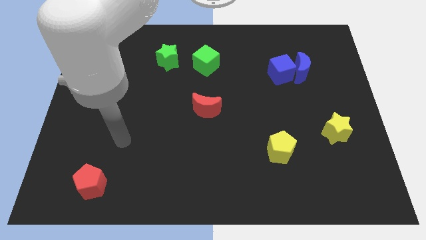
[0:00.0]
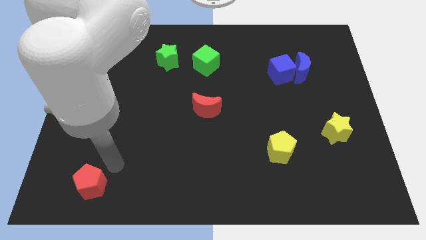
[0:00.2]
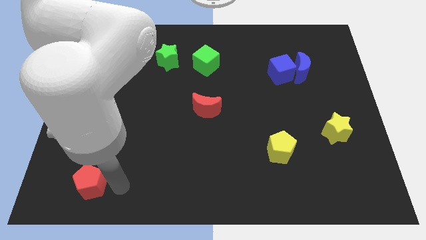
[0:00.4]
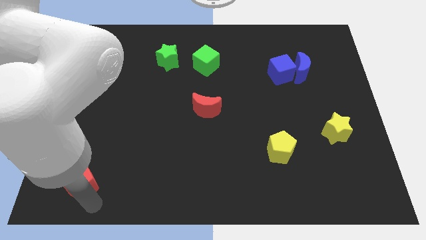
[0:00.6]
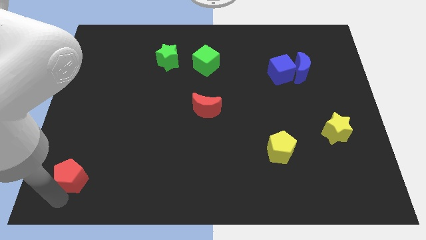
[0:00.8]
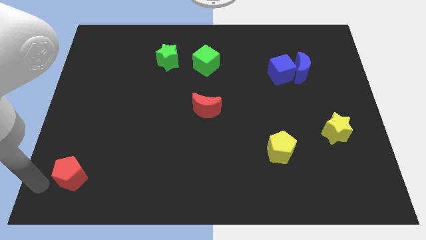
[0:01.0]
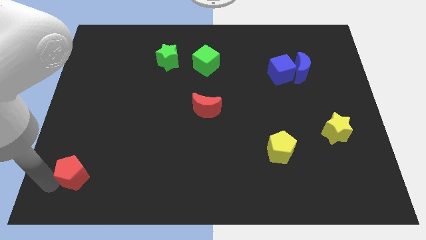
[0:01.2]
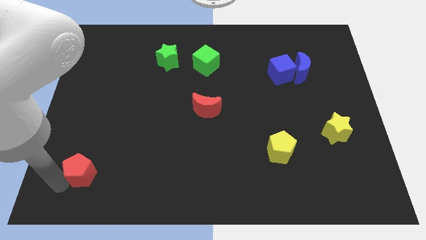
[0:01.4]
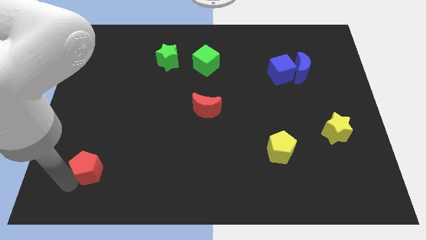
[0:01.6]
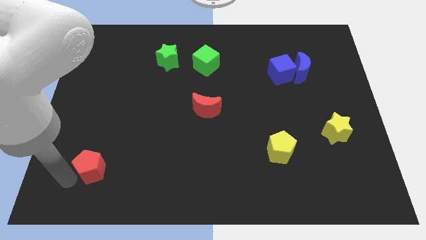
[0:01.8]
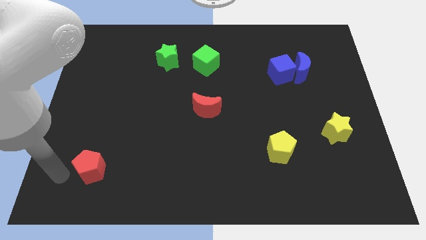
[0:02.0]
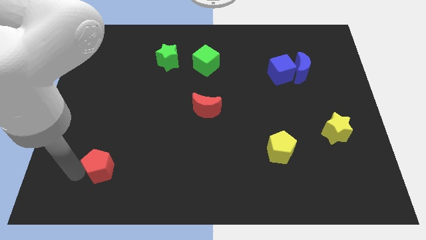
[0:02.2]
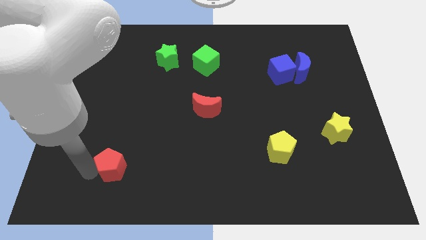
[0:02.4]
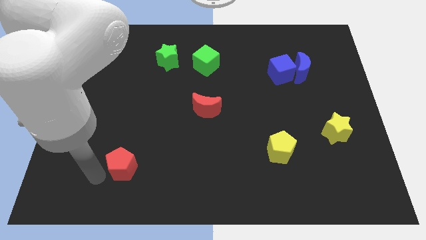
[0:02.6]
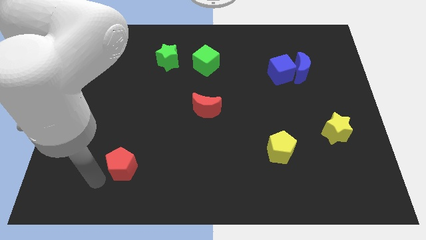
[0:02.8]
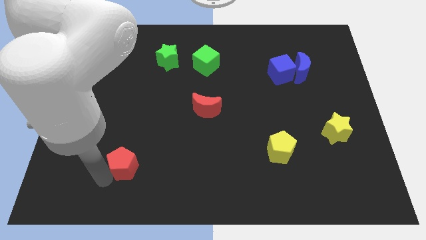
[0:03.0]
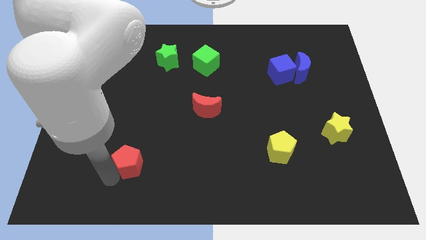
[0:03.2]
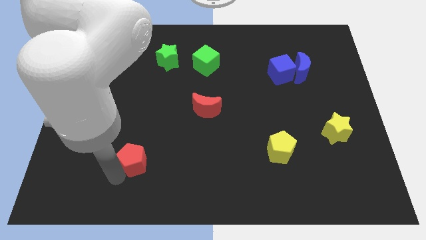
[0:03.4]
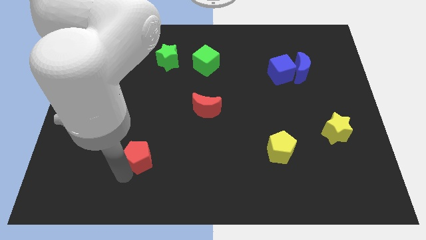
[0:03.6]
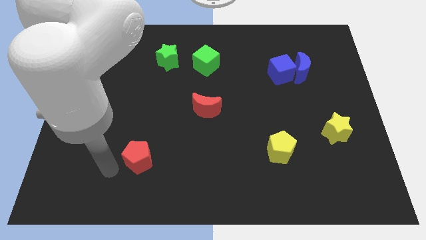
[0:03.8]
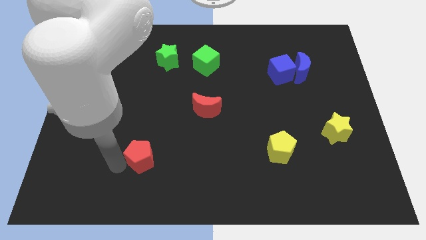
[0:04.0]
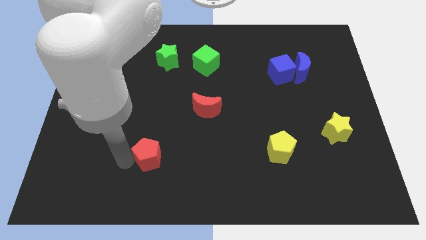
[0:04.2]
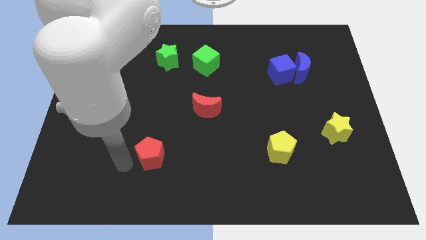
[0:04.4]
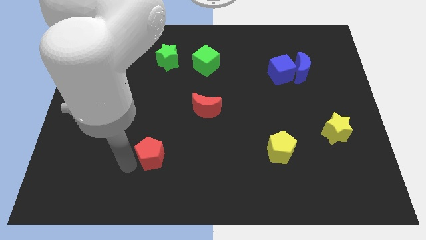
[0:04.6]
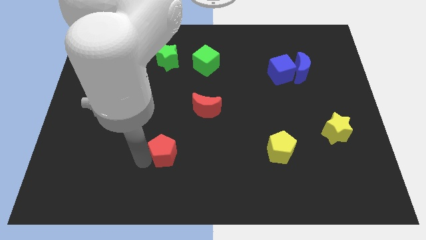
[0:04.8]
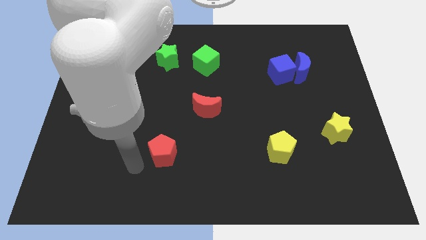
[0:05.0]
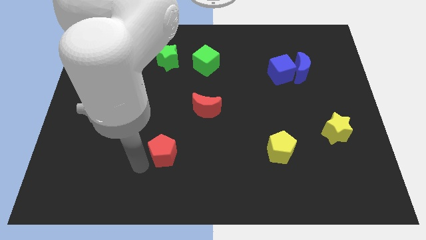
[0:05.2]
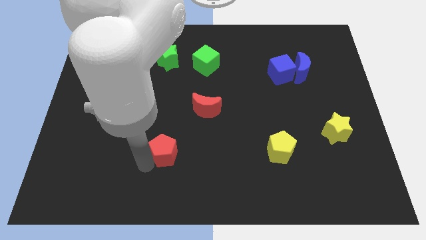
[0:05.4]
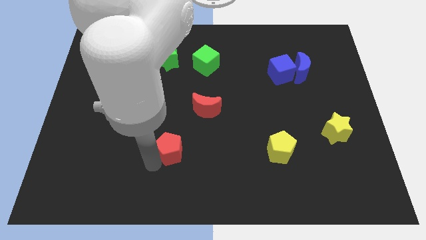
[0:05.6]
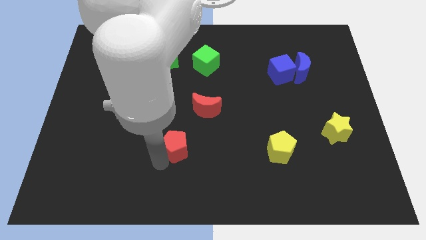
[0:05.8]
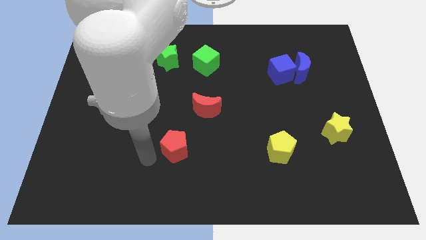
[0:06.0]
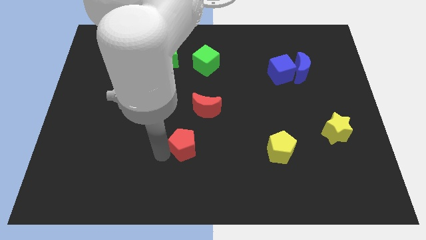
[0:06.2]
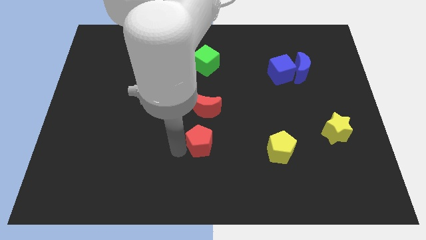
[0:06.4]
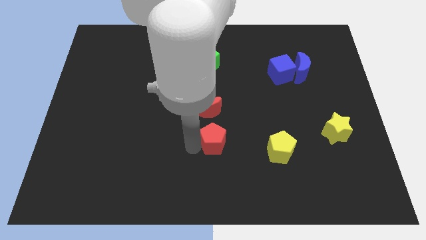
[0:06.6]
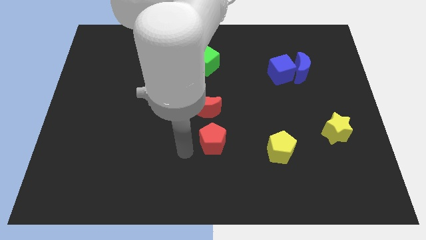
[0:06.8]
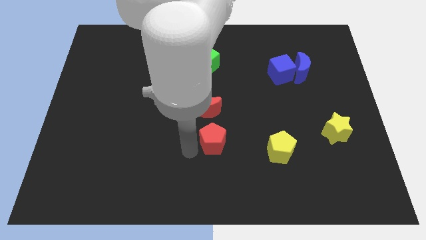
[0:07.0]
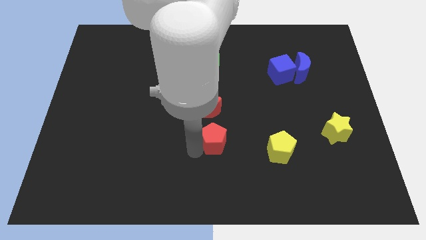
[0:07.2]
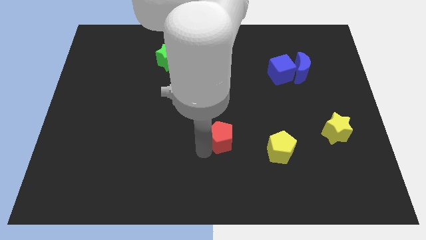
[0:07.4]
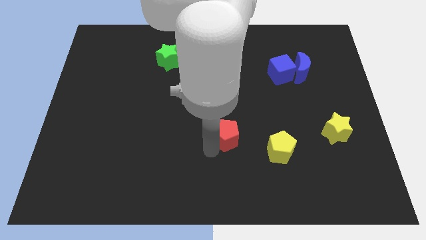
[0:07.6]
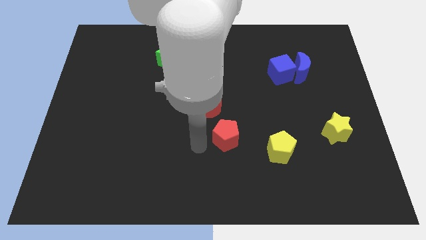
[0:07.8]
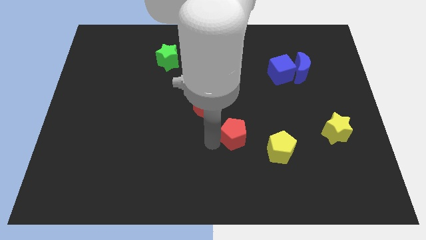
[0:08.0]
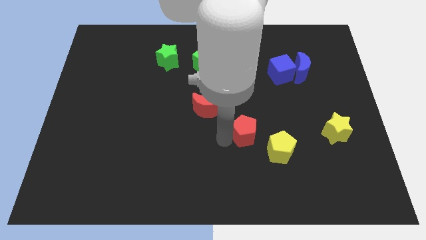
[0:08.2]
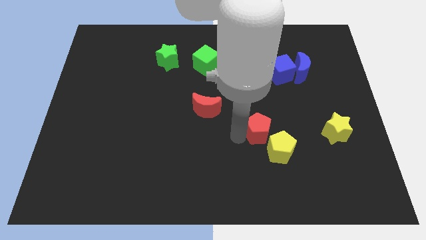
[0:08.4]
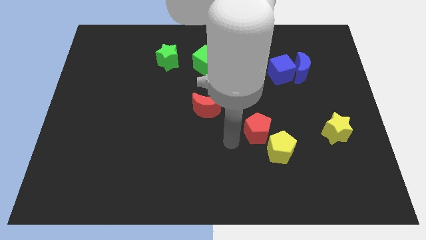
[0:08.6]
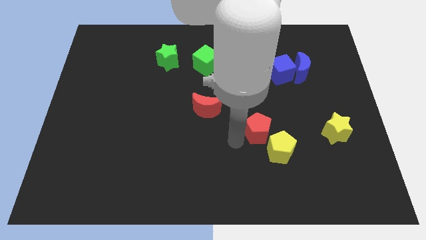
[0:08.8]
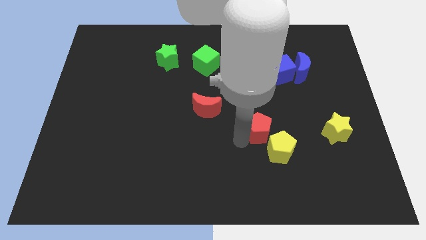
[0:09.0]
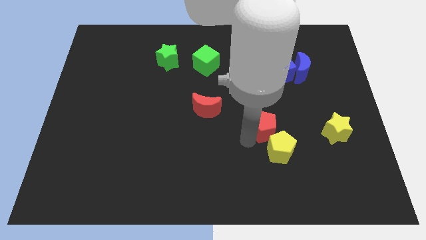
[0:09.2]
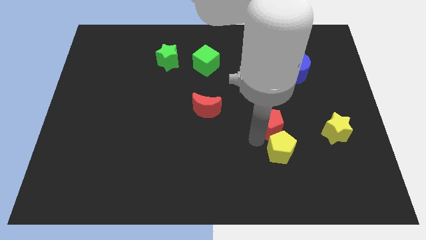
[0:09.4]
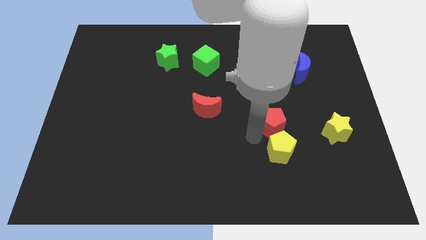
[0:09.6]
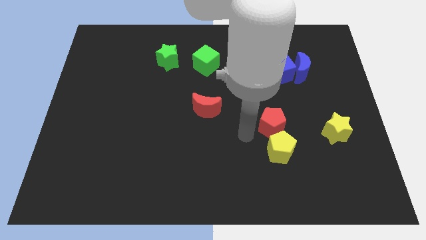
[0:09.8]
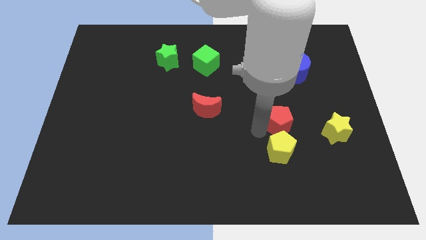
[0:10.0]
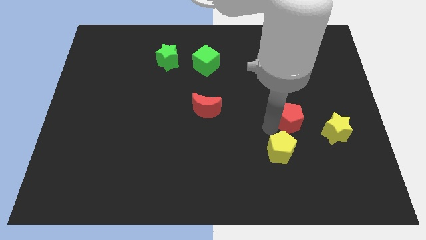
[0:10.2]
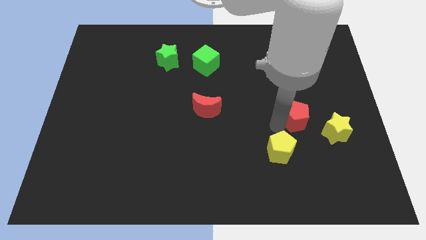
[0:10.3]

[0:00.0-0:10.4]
slide the red pentagon to the top left of the yellow star
